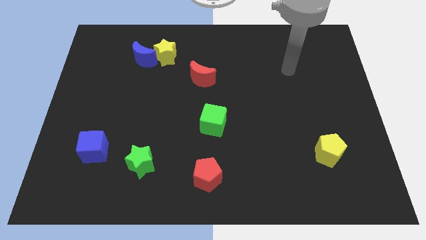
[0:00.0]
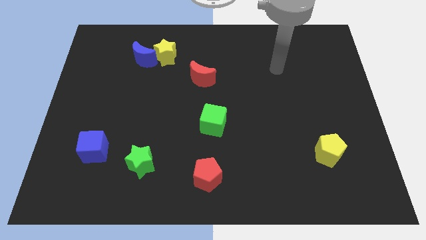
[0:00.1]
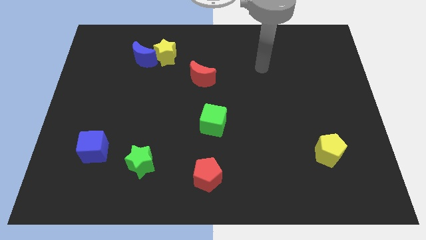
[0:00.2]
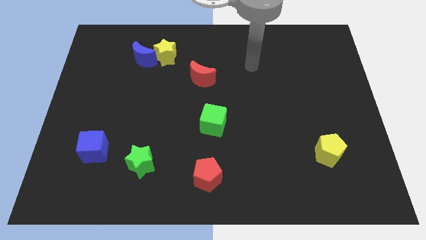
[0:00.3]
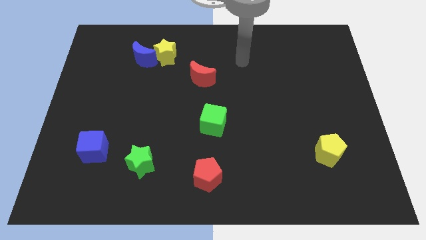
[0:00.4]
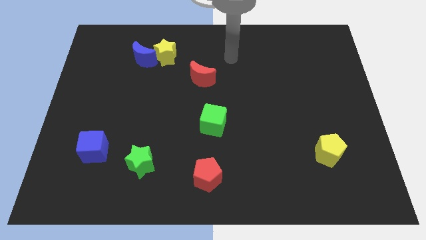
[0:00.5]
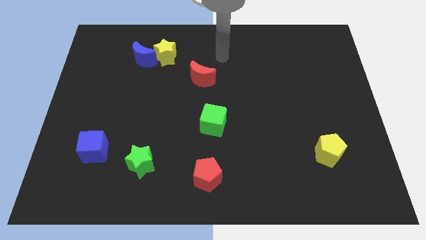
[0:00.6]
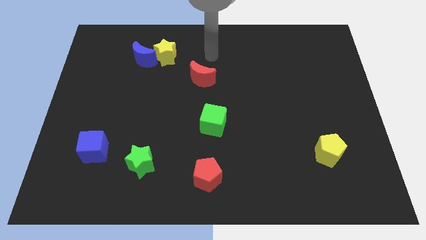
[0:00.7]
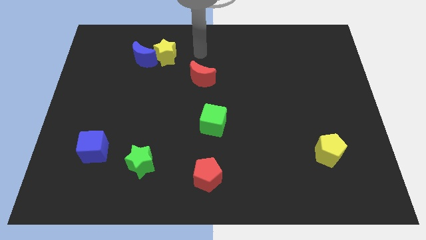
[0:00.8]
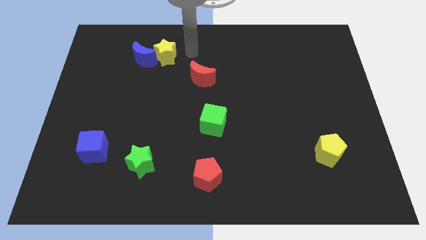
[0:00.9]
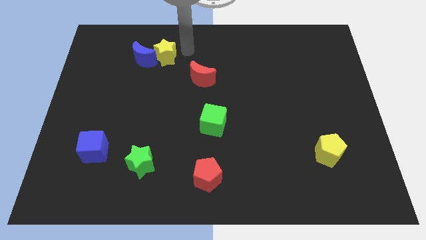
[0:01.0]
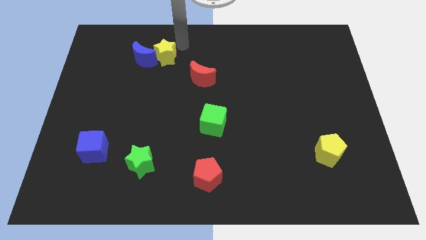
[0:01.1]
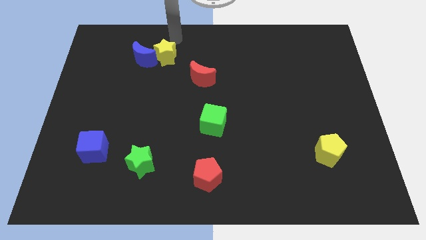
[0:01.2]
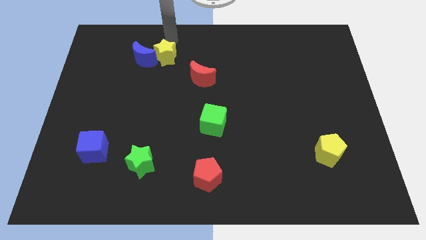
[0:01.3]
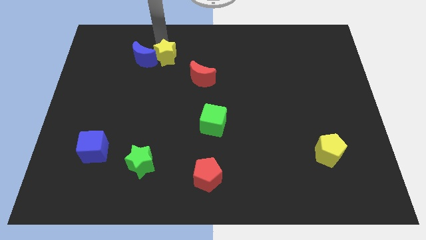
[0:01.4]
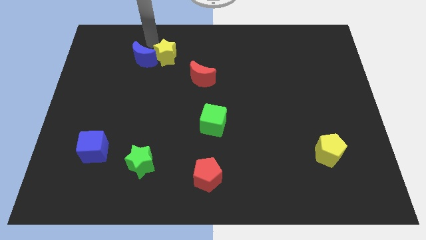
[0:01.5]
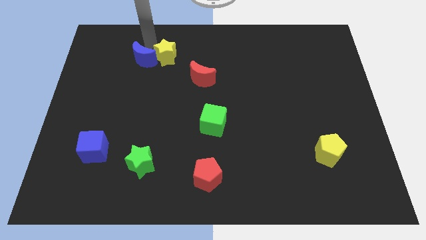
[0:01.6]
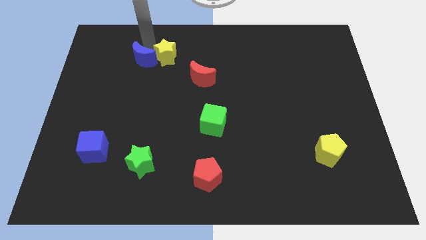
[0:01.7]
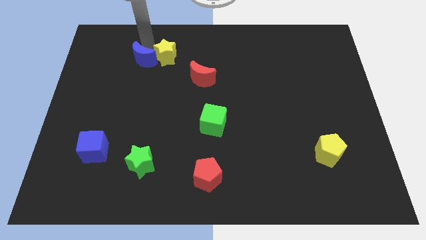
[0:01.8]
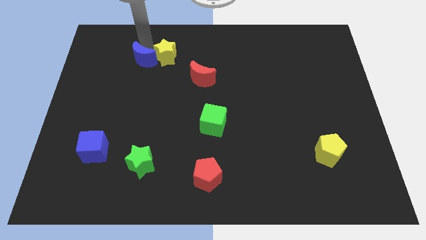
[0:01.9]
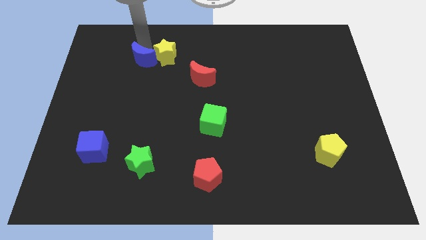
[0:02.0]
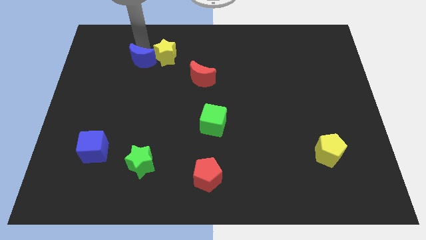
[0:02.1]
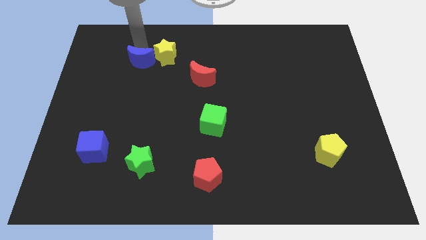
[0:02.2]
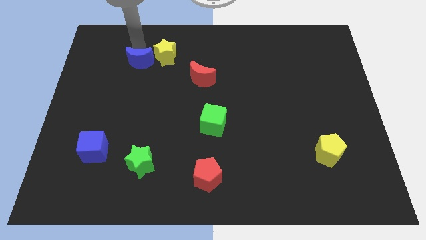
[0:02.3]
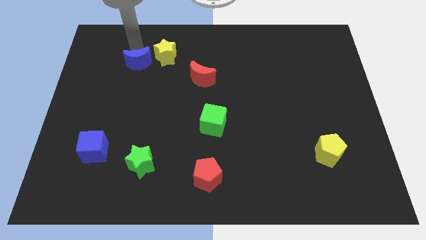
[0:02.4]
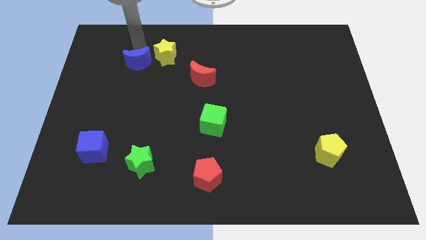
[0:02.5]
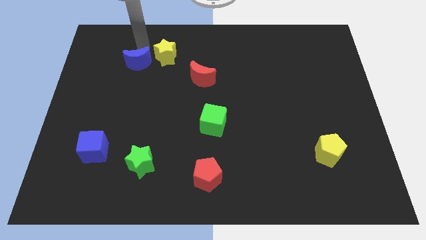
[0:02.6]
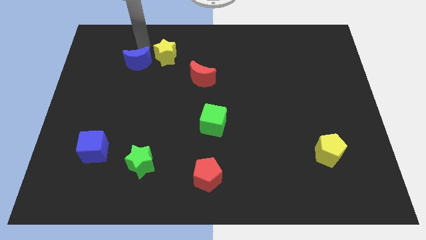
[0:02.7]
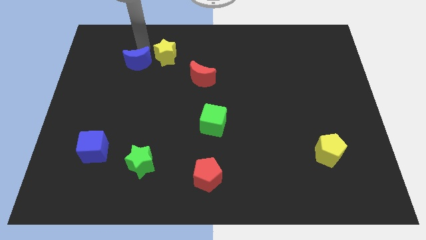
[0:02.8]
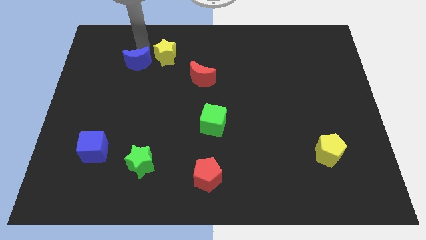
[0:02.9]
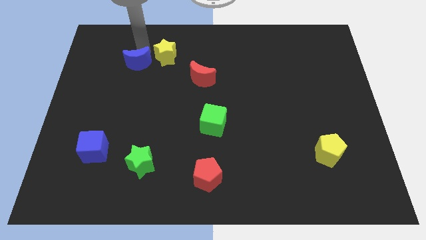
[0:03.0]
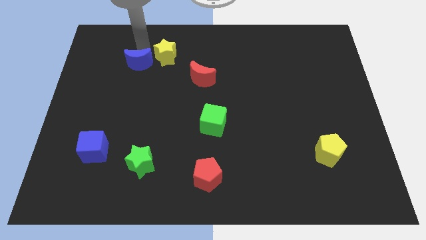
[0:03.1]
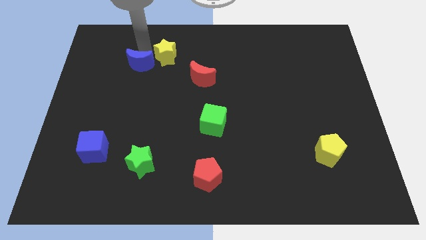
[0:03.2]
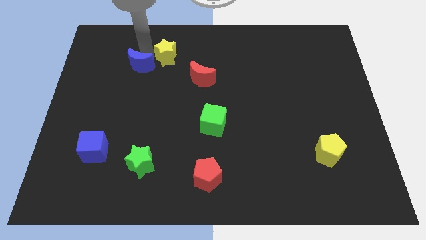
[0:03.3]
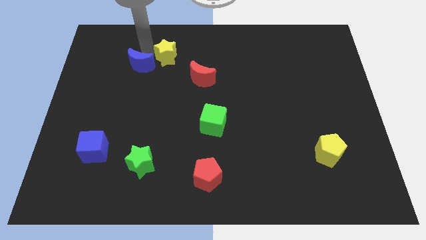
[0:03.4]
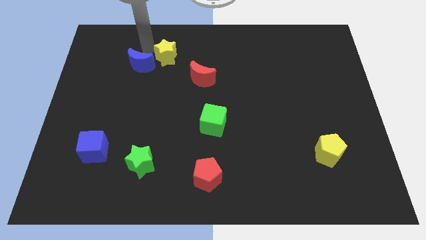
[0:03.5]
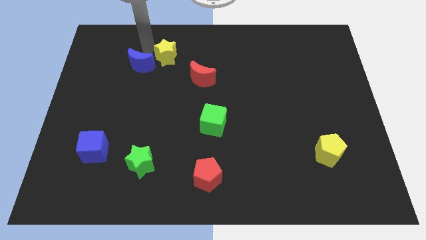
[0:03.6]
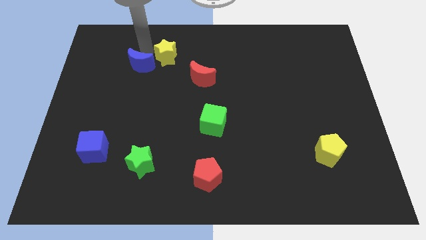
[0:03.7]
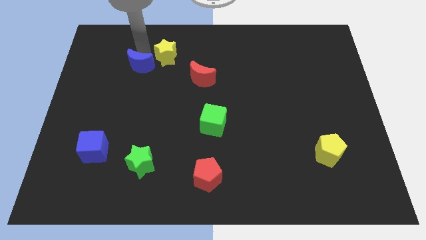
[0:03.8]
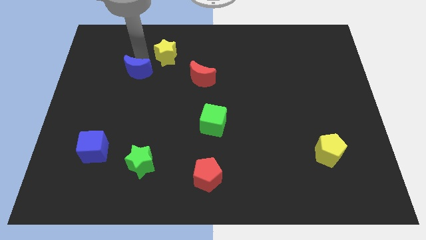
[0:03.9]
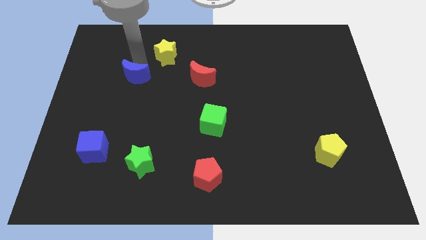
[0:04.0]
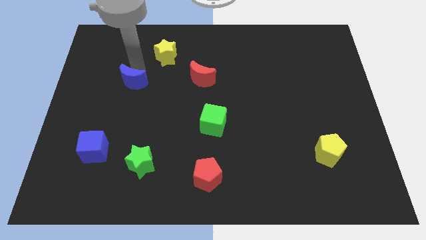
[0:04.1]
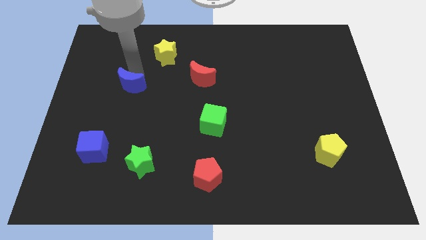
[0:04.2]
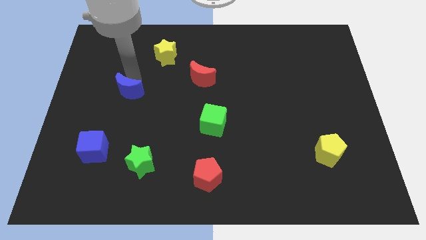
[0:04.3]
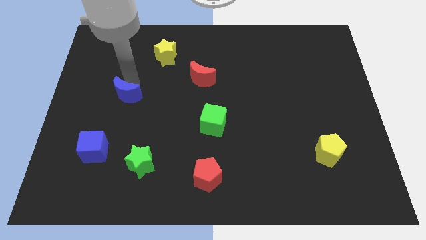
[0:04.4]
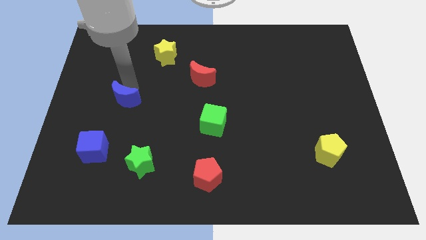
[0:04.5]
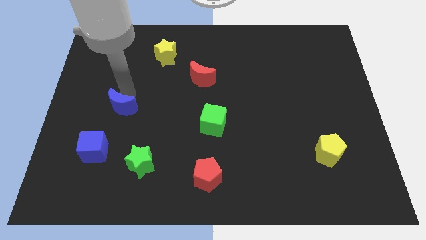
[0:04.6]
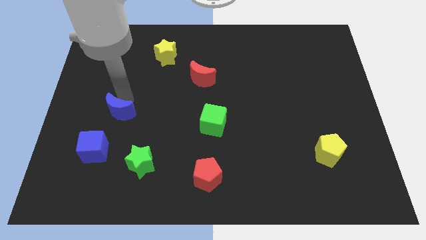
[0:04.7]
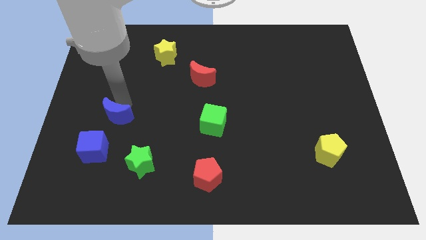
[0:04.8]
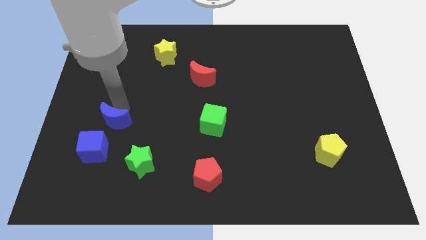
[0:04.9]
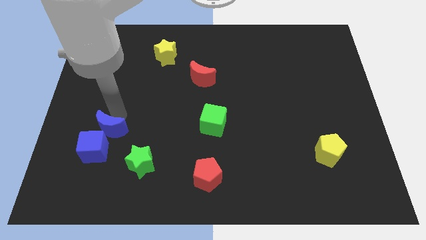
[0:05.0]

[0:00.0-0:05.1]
slide the blue moon to the blue cube

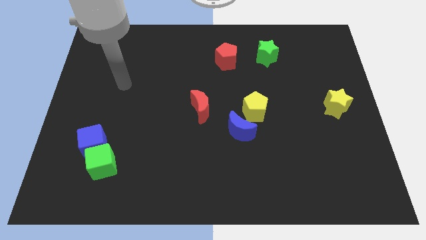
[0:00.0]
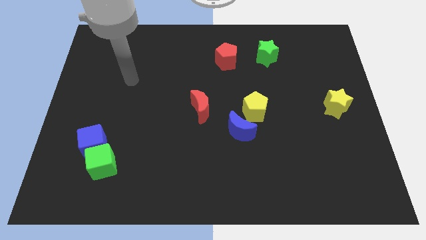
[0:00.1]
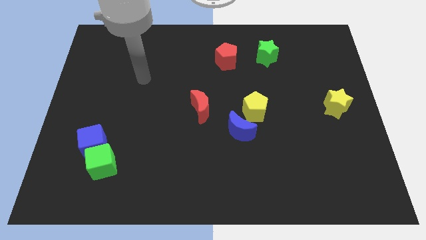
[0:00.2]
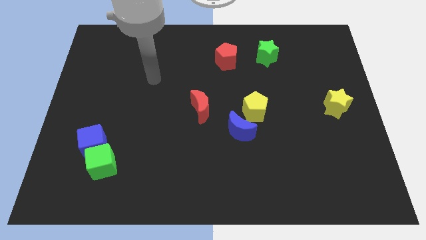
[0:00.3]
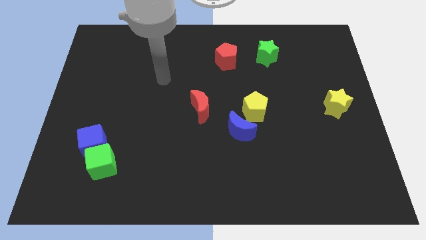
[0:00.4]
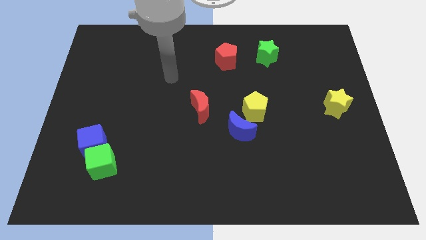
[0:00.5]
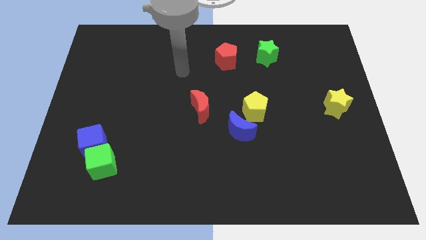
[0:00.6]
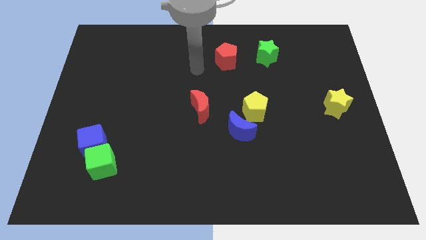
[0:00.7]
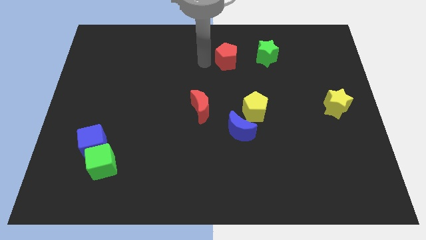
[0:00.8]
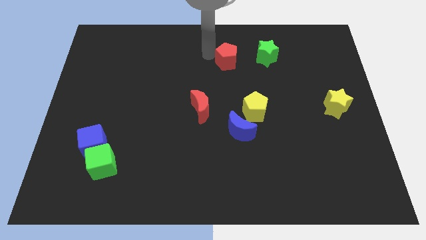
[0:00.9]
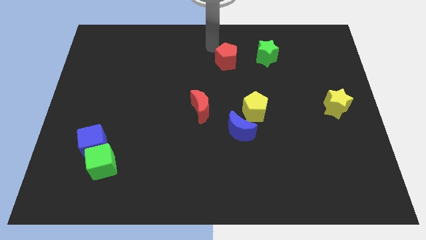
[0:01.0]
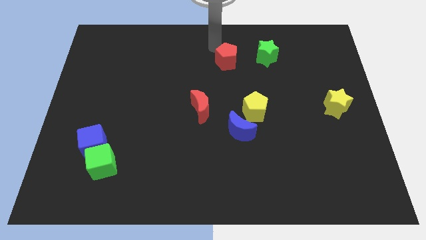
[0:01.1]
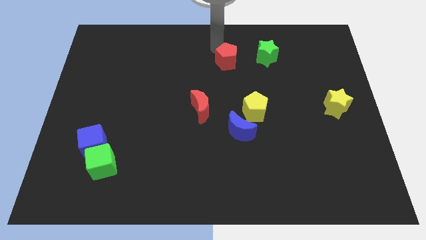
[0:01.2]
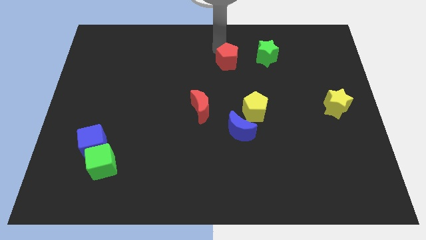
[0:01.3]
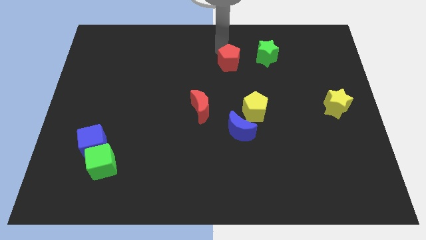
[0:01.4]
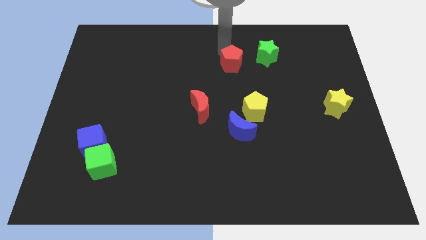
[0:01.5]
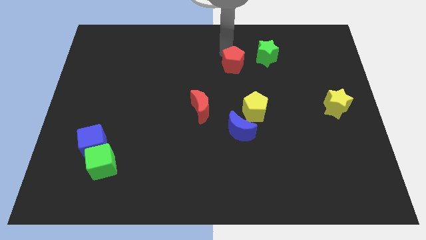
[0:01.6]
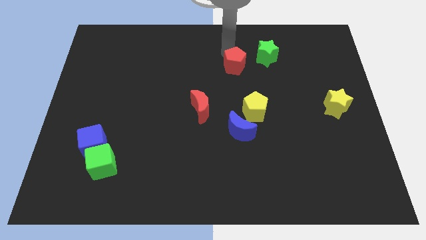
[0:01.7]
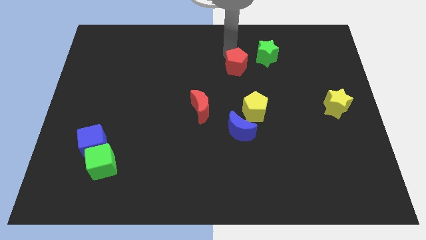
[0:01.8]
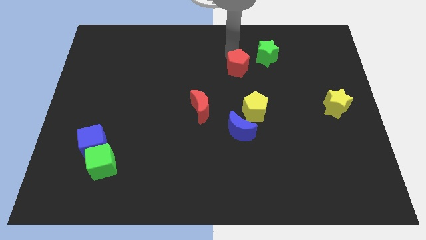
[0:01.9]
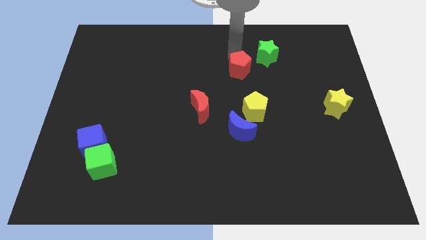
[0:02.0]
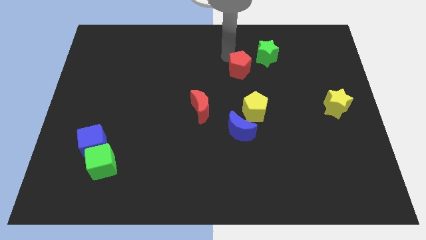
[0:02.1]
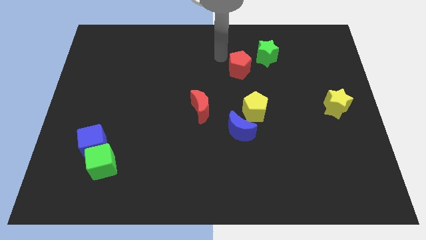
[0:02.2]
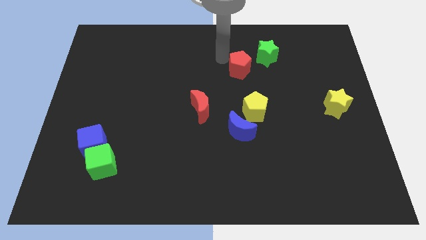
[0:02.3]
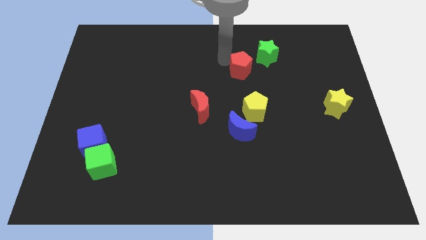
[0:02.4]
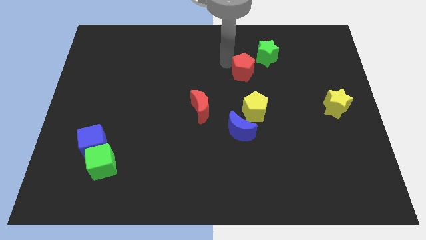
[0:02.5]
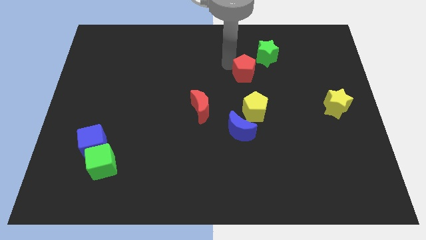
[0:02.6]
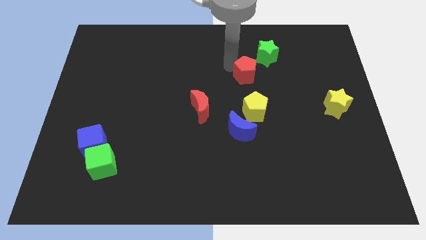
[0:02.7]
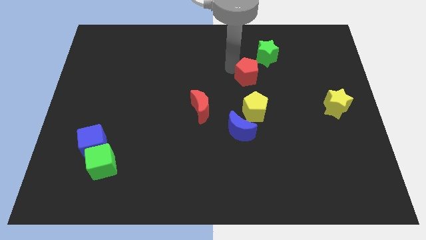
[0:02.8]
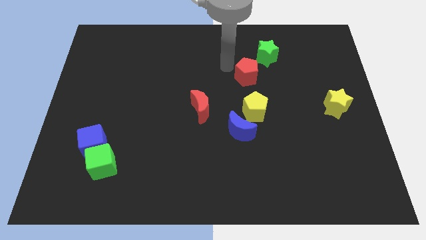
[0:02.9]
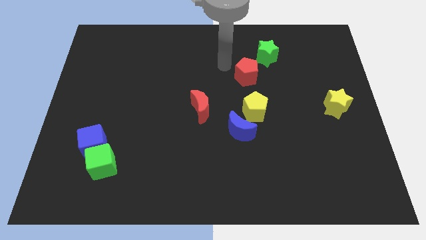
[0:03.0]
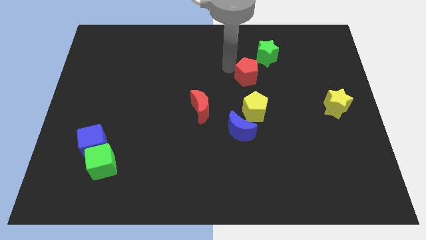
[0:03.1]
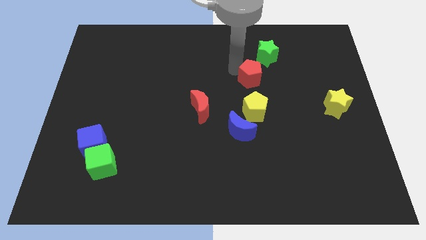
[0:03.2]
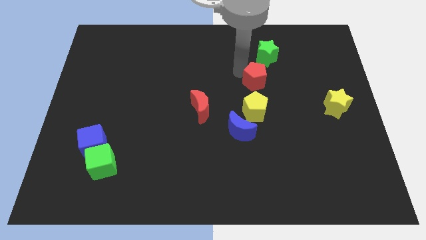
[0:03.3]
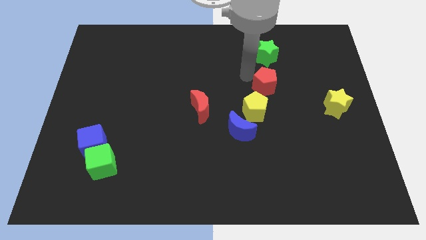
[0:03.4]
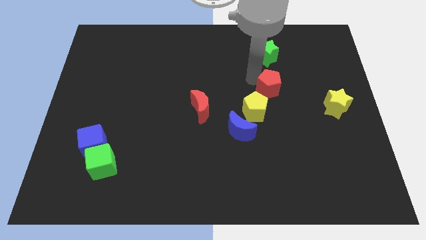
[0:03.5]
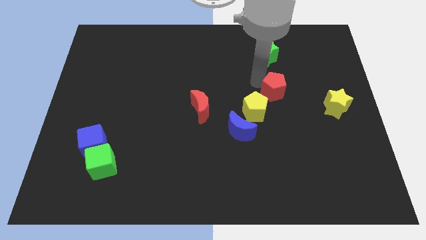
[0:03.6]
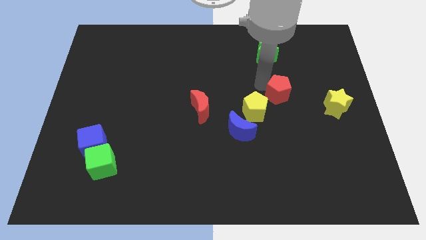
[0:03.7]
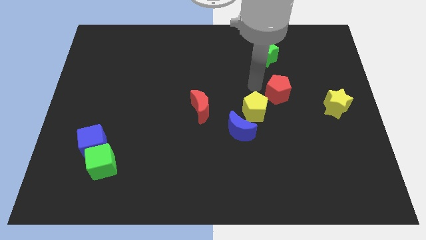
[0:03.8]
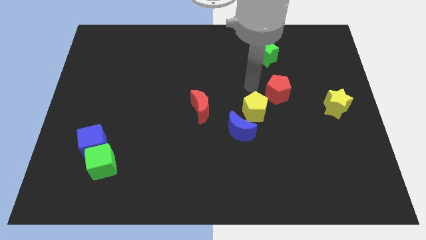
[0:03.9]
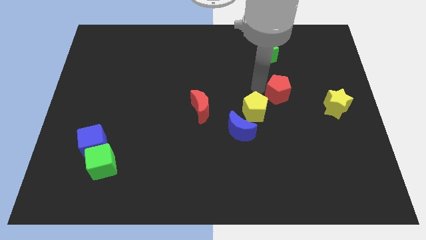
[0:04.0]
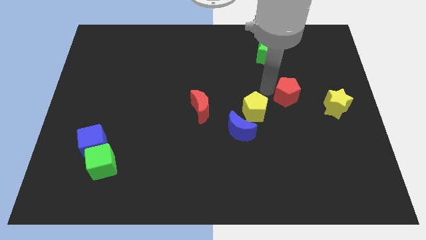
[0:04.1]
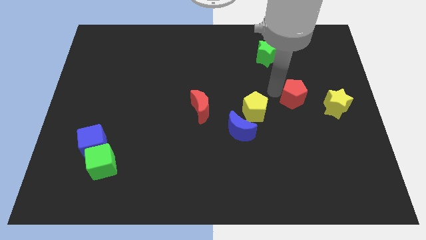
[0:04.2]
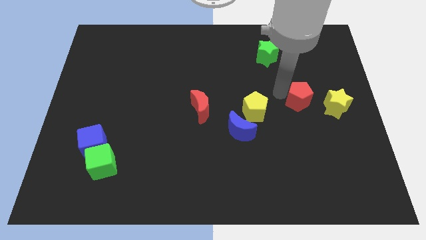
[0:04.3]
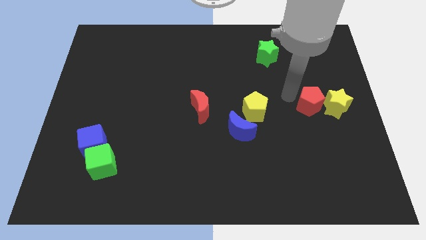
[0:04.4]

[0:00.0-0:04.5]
slide the red pentagon next to the yellow star
